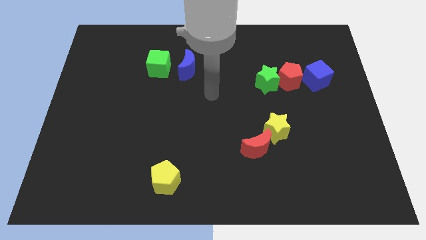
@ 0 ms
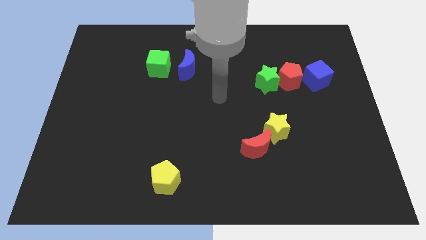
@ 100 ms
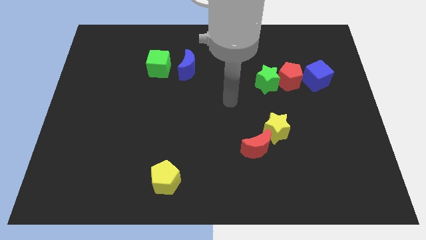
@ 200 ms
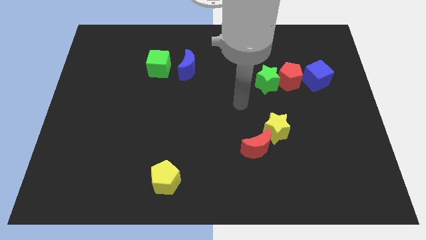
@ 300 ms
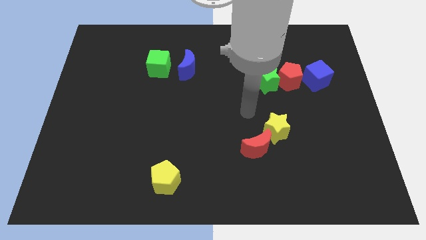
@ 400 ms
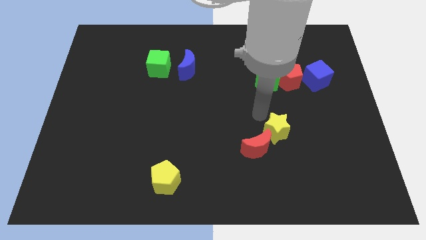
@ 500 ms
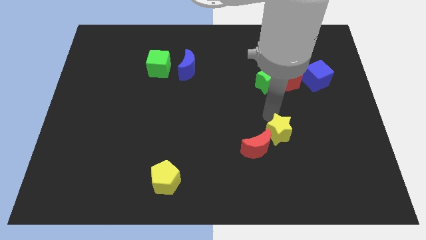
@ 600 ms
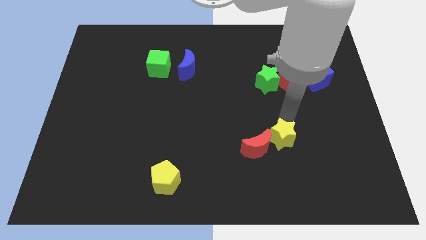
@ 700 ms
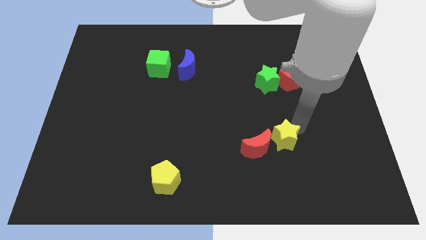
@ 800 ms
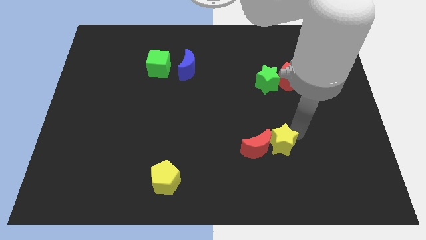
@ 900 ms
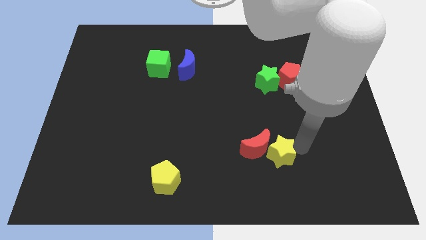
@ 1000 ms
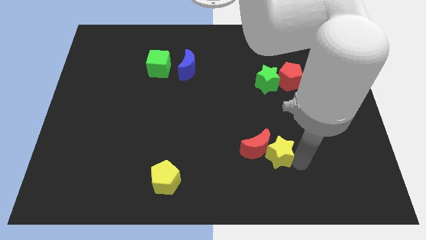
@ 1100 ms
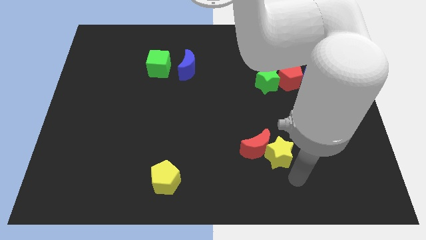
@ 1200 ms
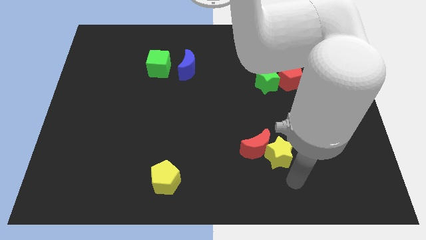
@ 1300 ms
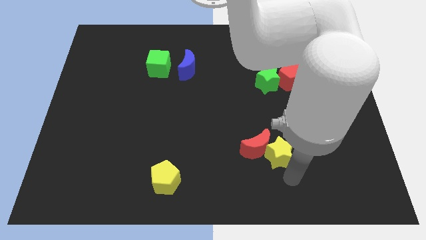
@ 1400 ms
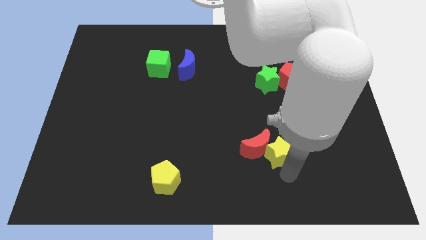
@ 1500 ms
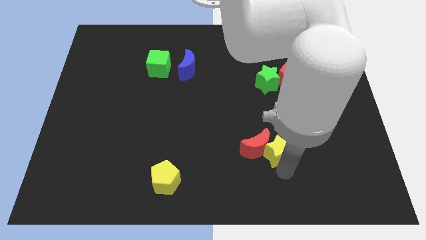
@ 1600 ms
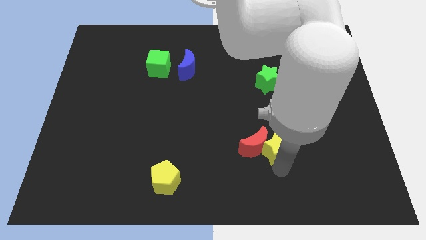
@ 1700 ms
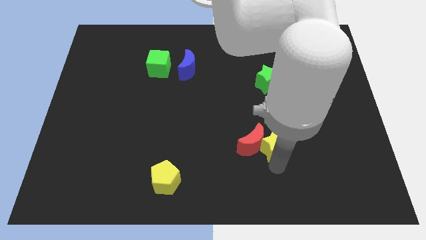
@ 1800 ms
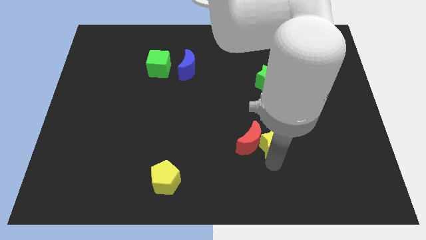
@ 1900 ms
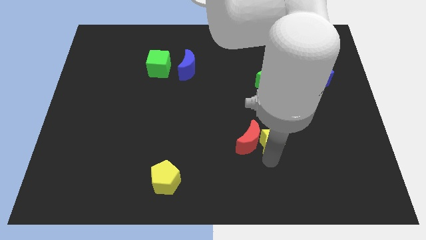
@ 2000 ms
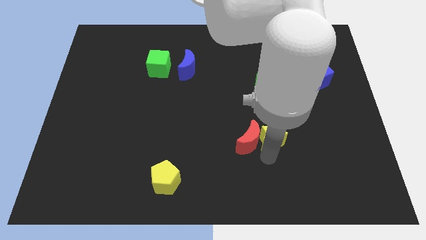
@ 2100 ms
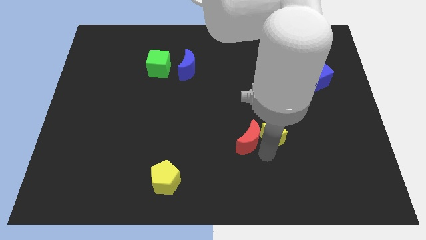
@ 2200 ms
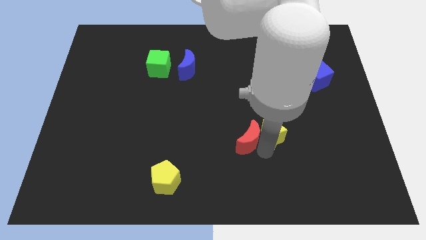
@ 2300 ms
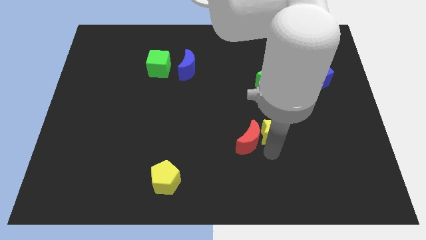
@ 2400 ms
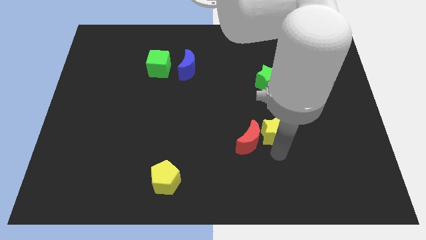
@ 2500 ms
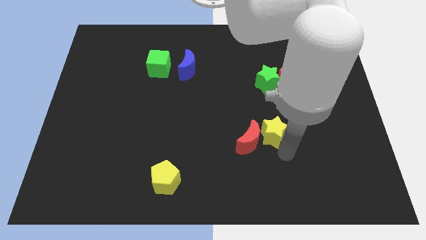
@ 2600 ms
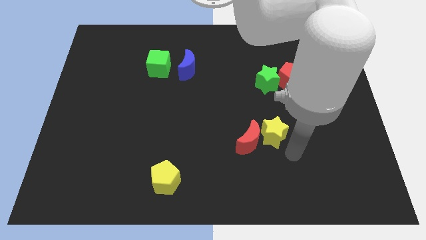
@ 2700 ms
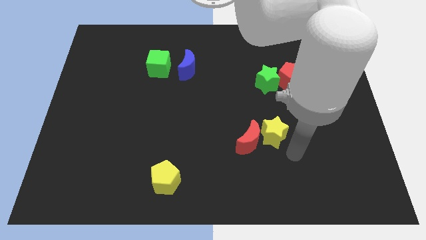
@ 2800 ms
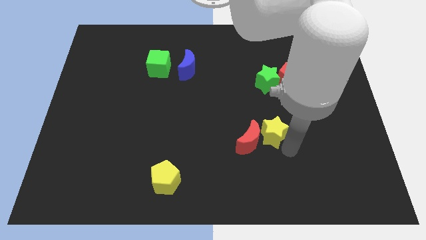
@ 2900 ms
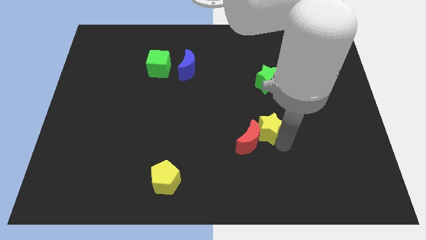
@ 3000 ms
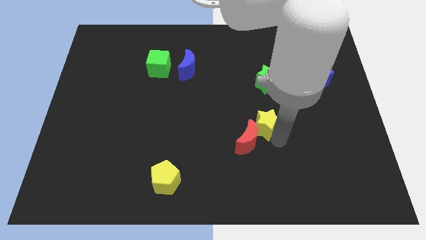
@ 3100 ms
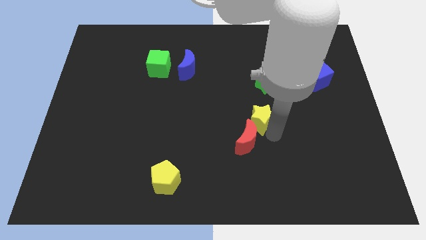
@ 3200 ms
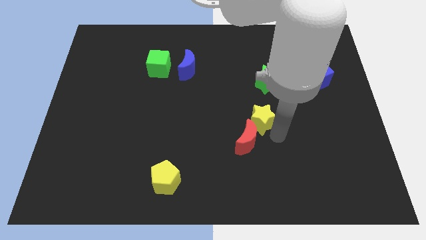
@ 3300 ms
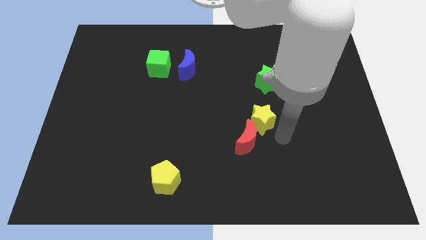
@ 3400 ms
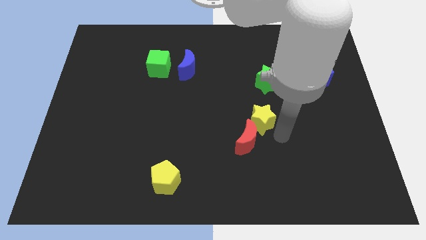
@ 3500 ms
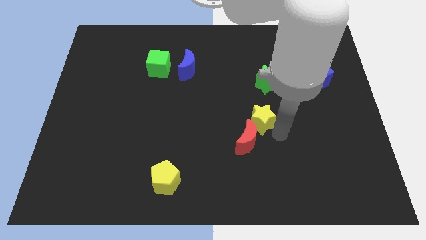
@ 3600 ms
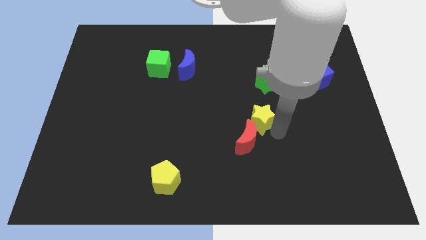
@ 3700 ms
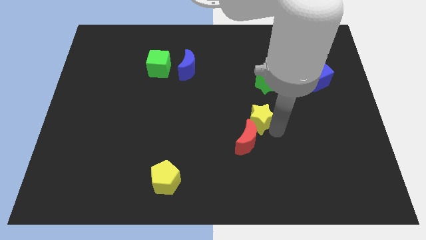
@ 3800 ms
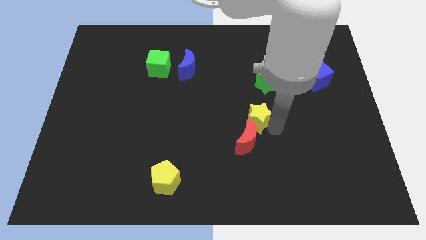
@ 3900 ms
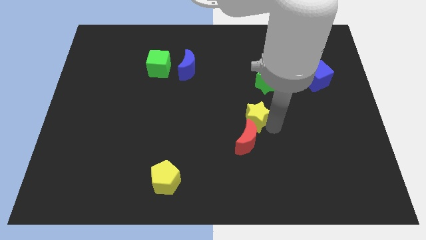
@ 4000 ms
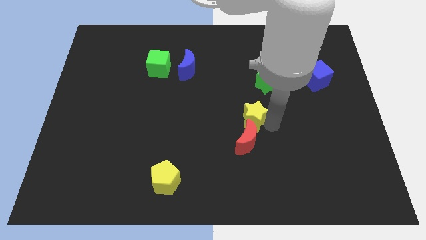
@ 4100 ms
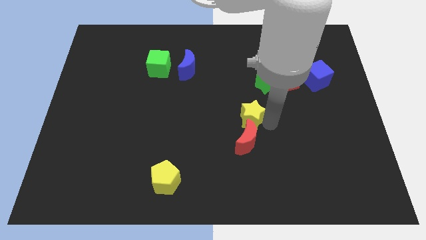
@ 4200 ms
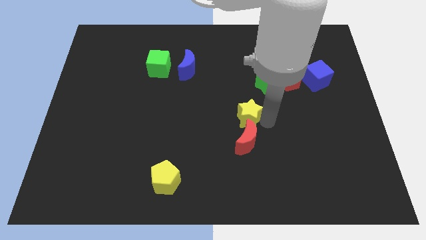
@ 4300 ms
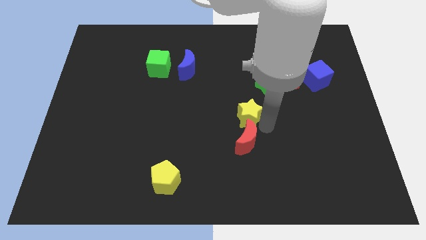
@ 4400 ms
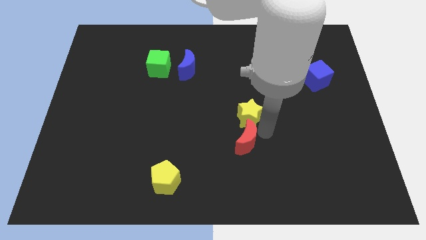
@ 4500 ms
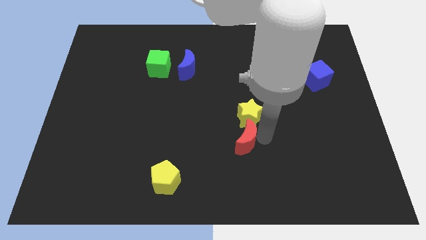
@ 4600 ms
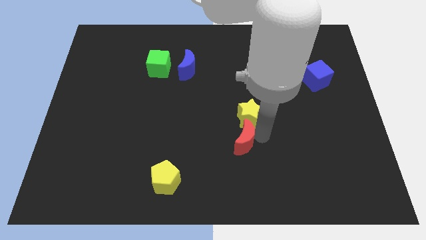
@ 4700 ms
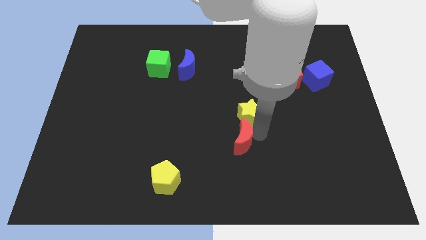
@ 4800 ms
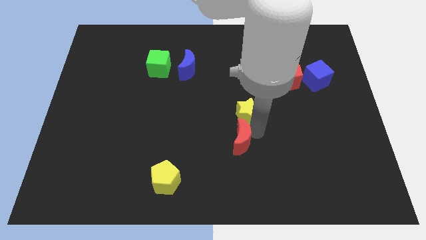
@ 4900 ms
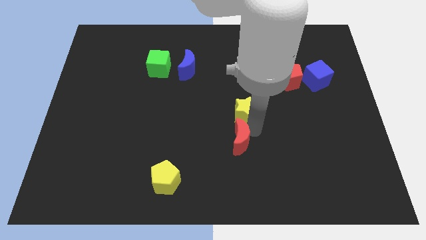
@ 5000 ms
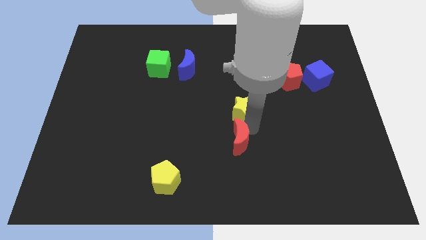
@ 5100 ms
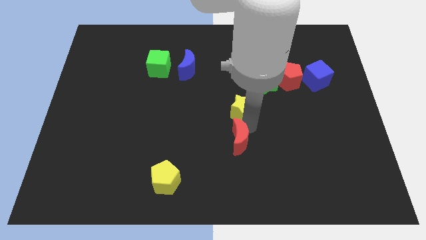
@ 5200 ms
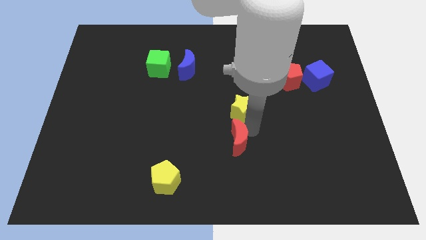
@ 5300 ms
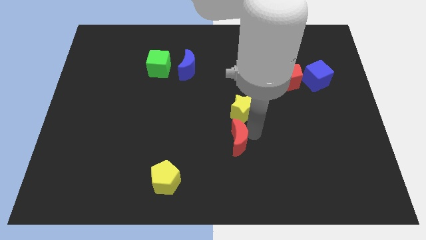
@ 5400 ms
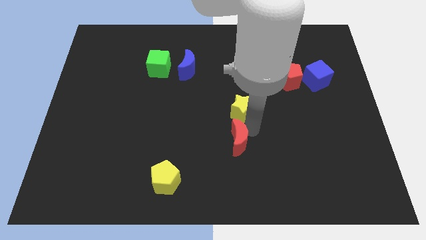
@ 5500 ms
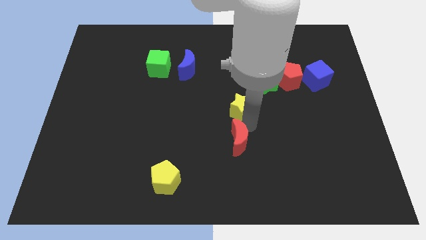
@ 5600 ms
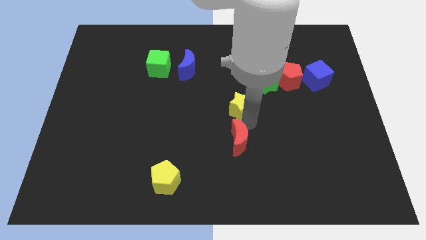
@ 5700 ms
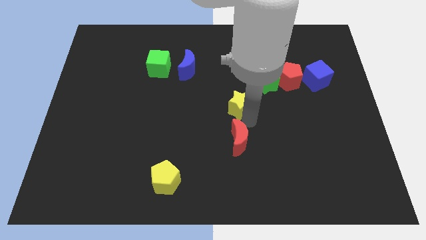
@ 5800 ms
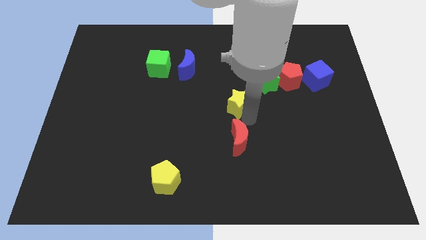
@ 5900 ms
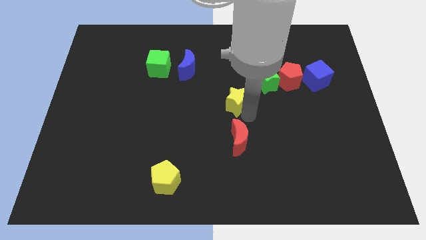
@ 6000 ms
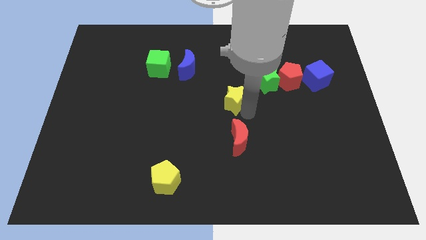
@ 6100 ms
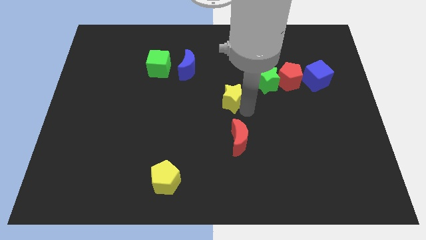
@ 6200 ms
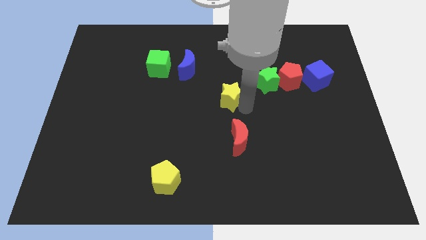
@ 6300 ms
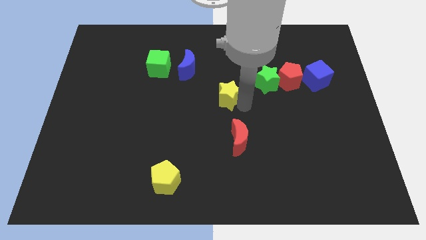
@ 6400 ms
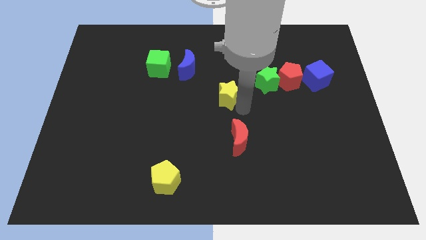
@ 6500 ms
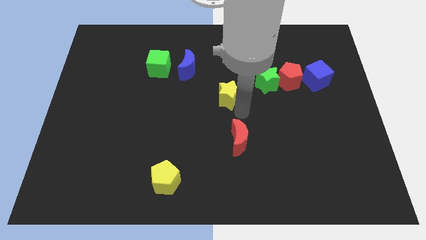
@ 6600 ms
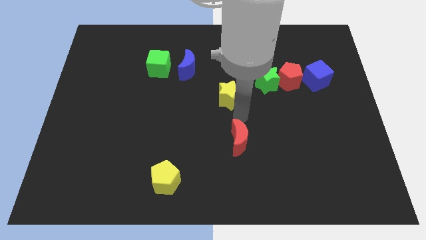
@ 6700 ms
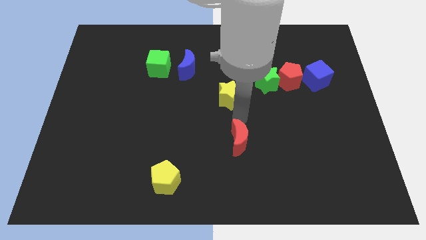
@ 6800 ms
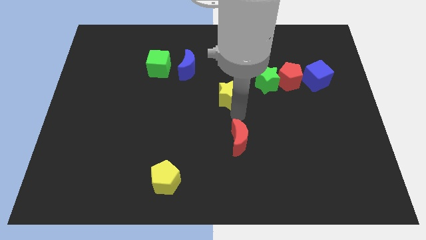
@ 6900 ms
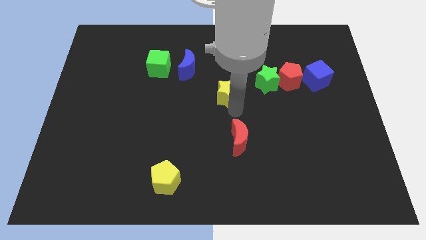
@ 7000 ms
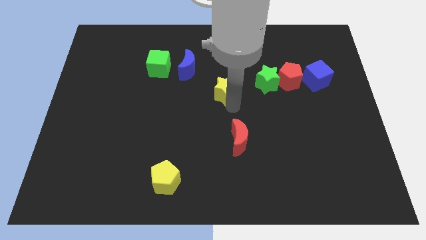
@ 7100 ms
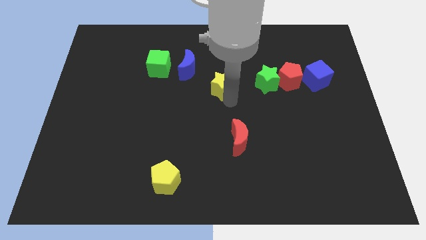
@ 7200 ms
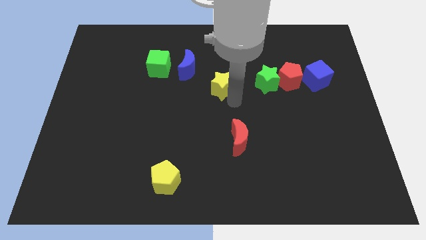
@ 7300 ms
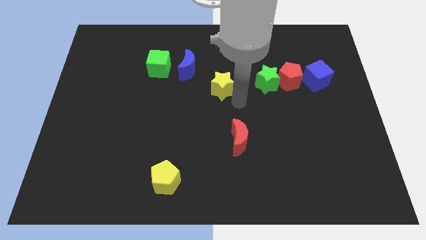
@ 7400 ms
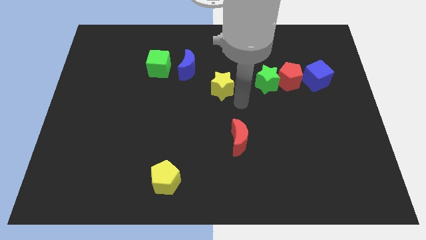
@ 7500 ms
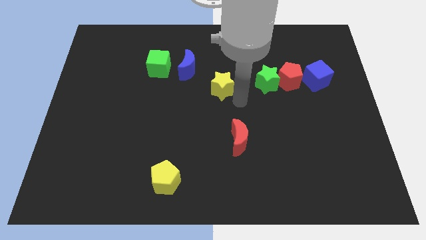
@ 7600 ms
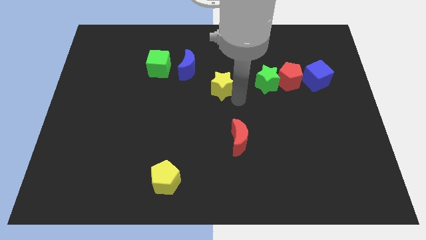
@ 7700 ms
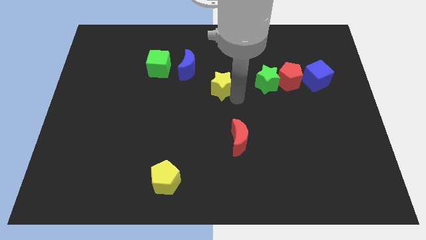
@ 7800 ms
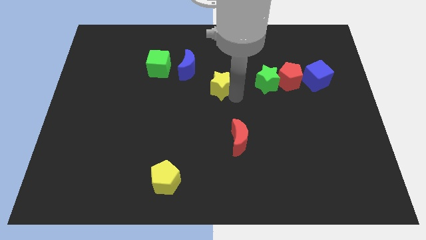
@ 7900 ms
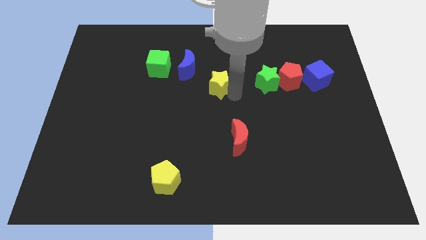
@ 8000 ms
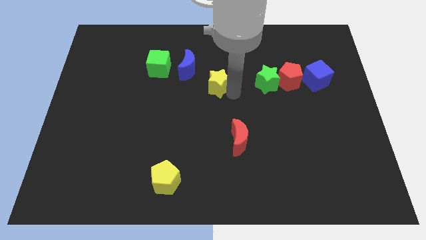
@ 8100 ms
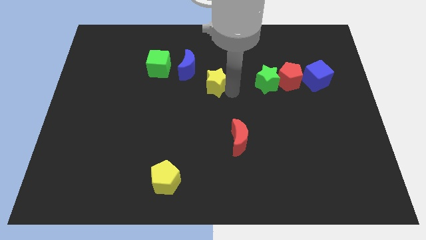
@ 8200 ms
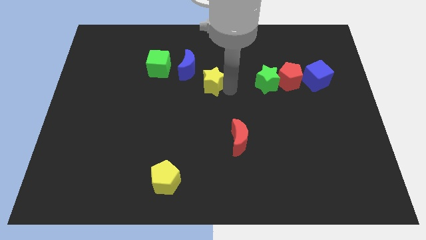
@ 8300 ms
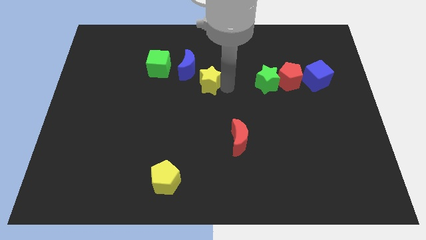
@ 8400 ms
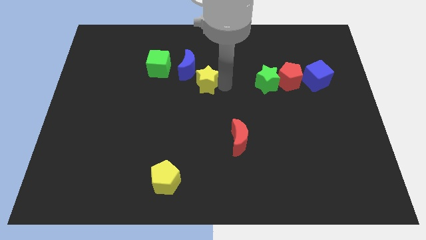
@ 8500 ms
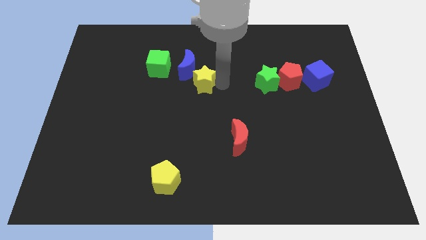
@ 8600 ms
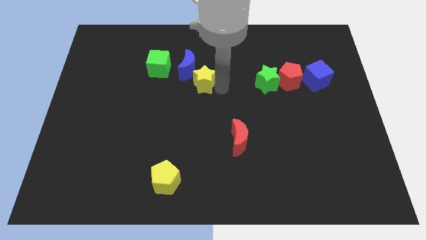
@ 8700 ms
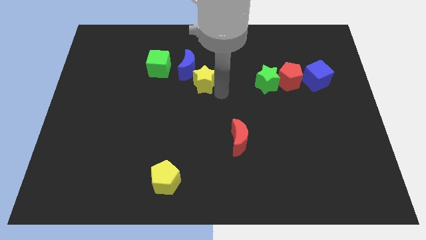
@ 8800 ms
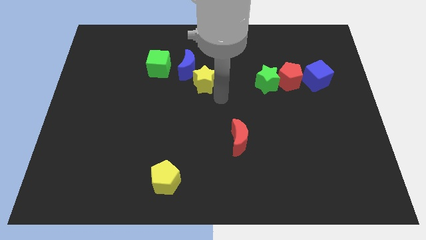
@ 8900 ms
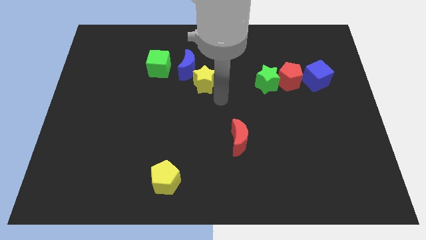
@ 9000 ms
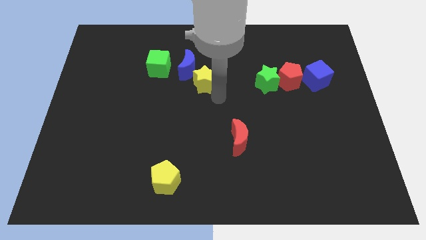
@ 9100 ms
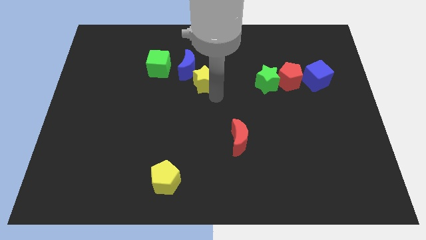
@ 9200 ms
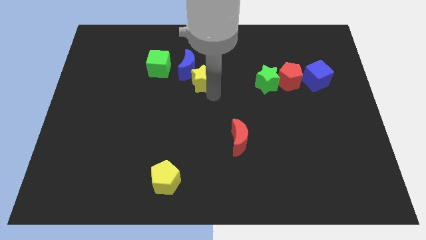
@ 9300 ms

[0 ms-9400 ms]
put the yellow star towards the blue moon
